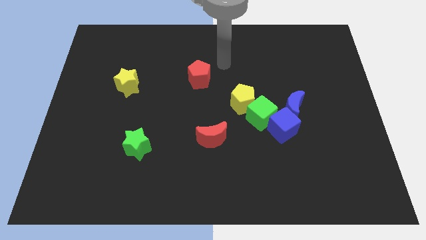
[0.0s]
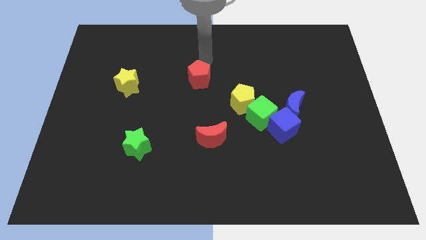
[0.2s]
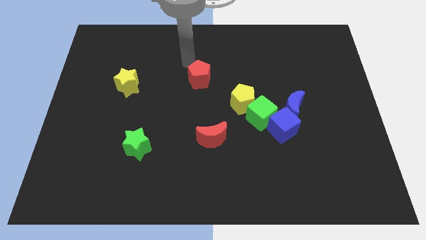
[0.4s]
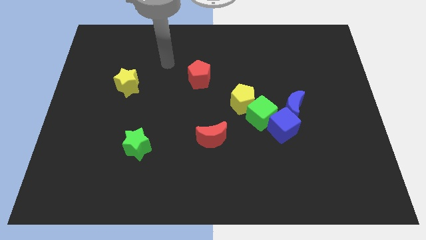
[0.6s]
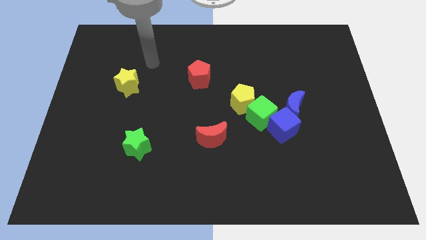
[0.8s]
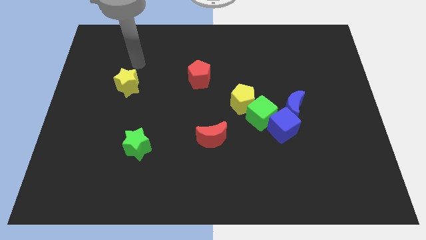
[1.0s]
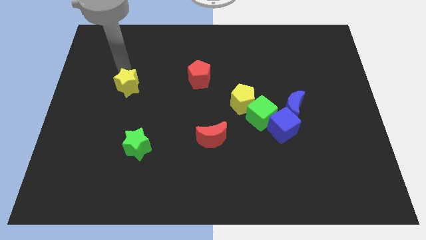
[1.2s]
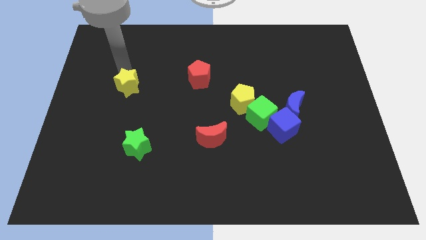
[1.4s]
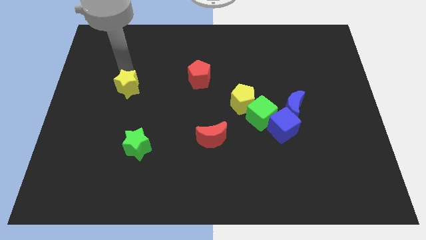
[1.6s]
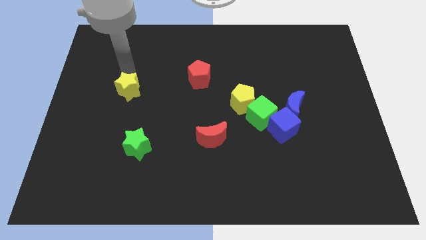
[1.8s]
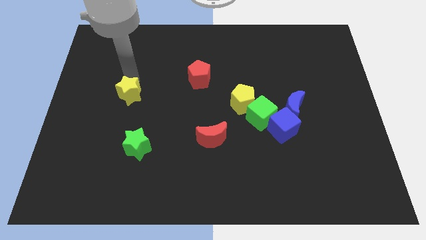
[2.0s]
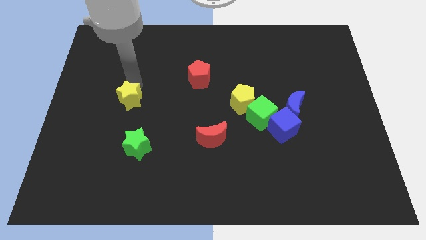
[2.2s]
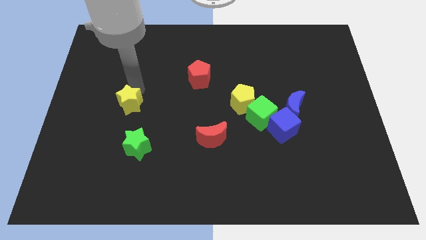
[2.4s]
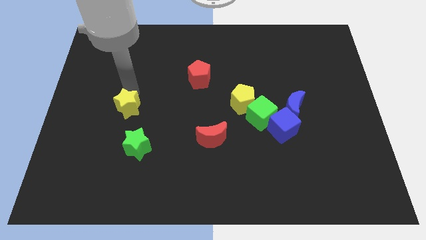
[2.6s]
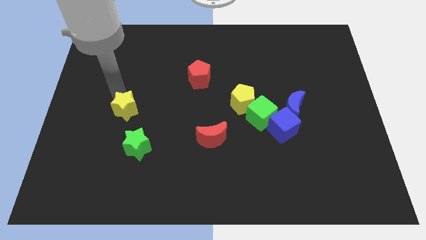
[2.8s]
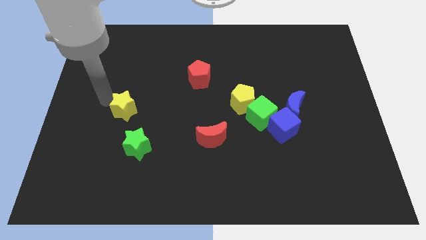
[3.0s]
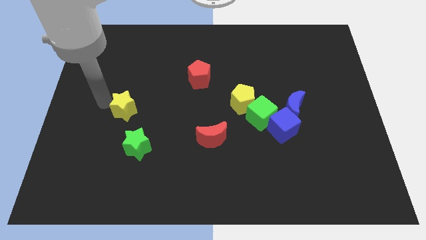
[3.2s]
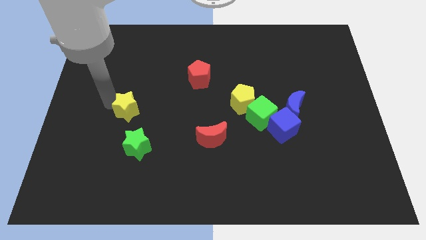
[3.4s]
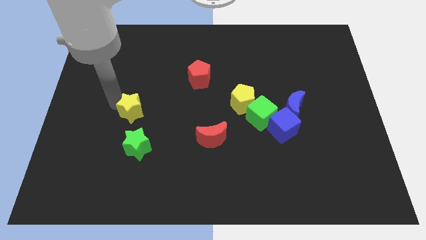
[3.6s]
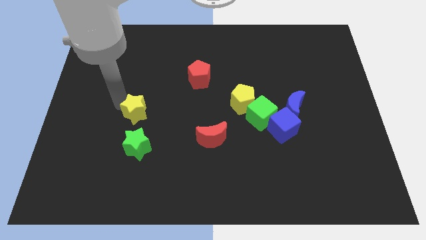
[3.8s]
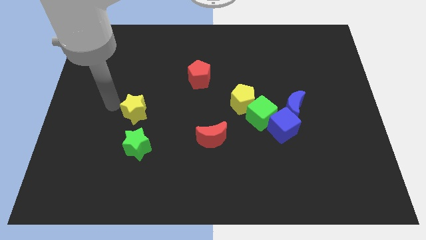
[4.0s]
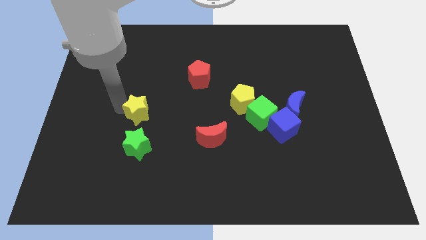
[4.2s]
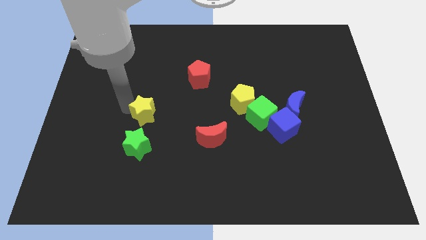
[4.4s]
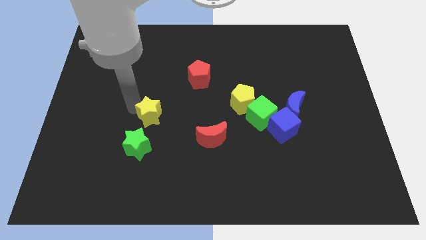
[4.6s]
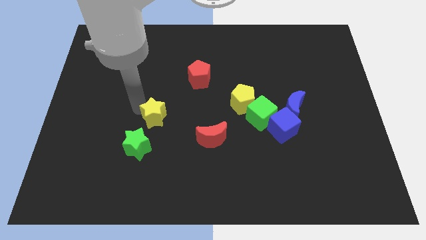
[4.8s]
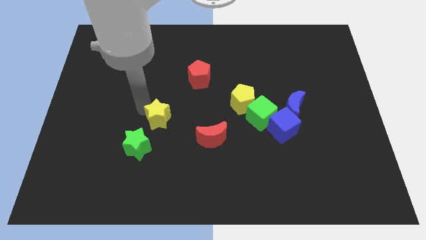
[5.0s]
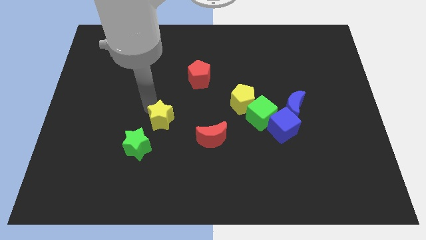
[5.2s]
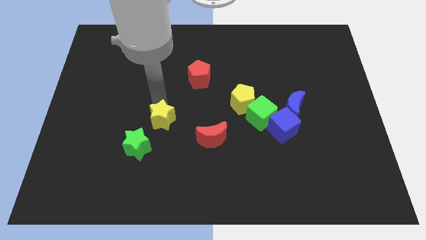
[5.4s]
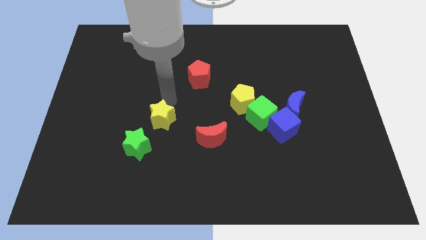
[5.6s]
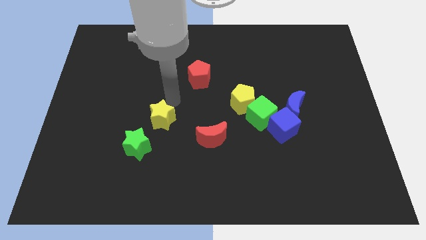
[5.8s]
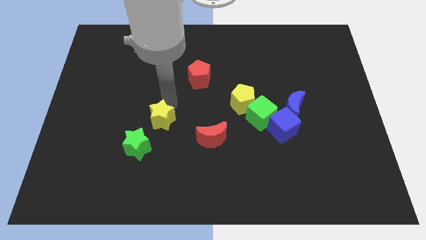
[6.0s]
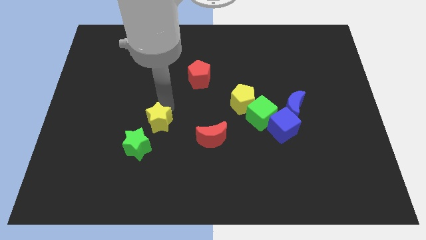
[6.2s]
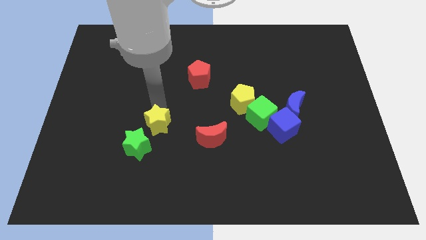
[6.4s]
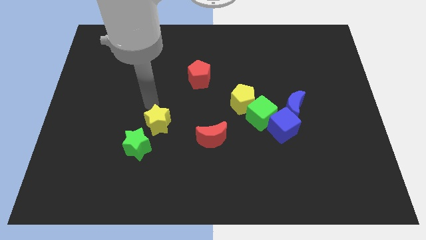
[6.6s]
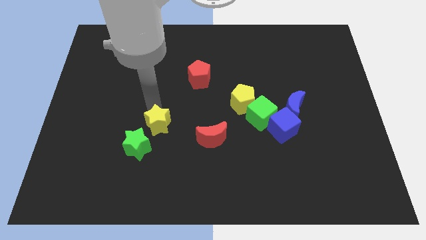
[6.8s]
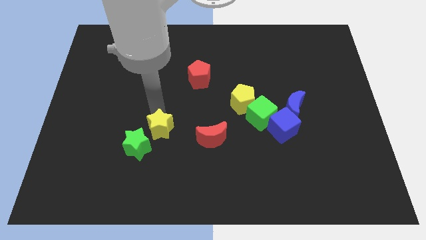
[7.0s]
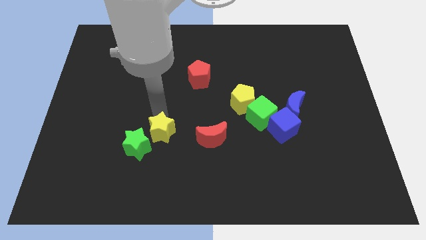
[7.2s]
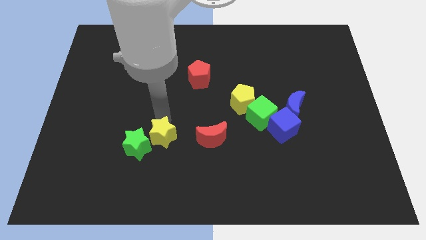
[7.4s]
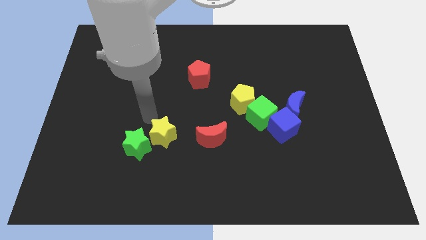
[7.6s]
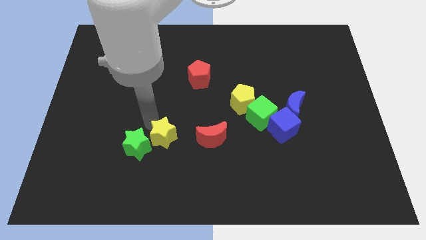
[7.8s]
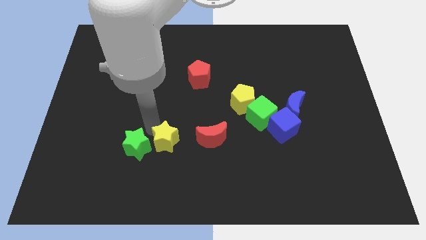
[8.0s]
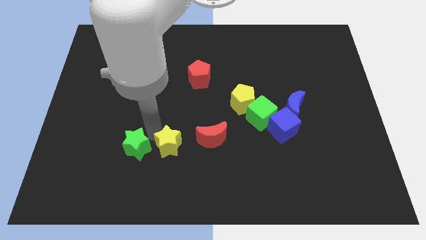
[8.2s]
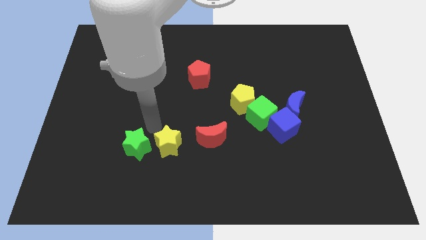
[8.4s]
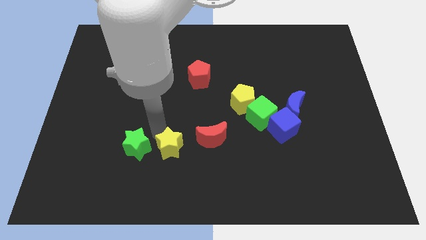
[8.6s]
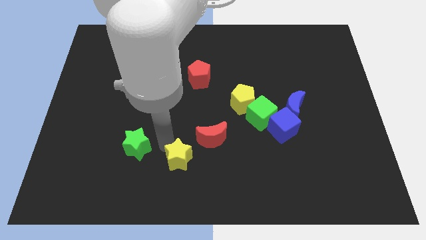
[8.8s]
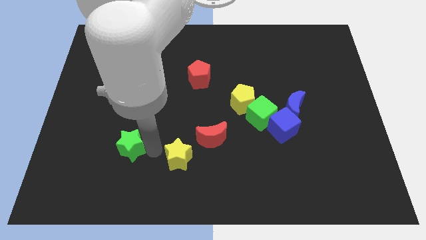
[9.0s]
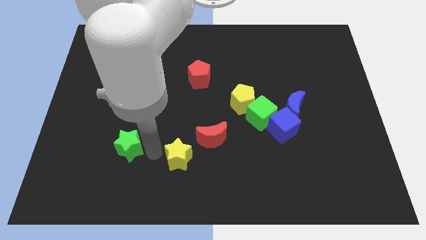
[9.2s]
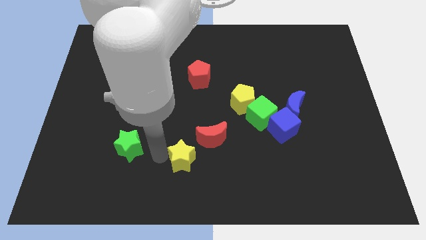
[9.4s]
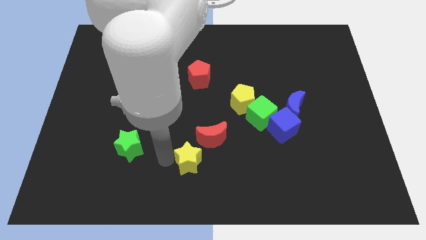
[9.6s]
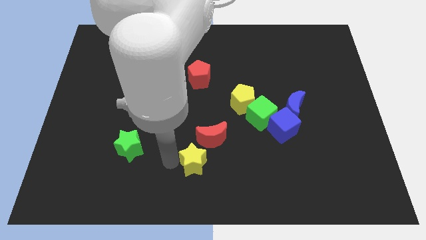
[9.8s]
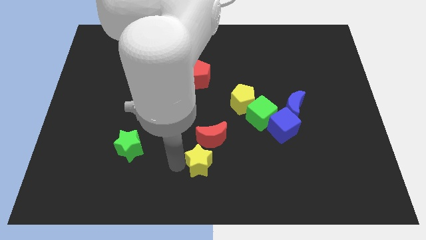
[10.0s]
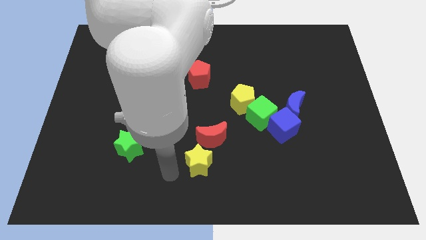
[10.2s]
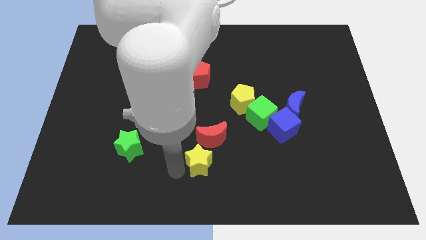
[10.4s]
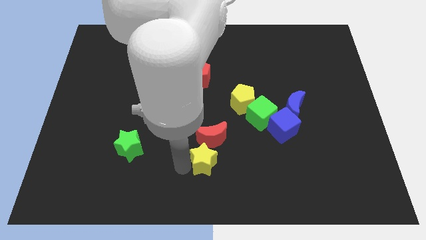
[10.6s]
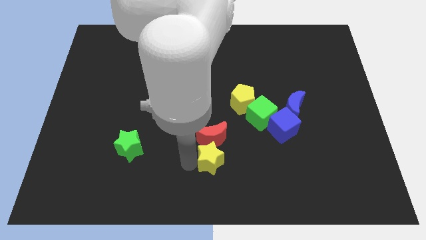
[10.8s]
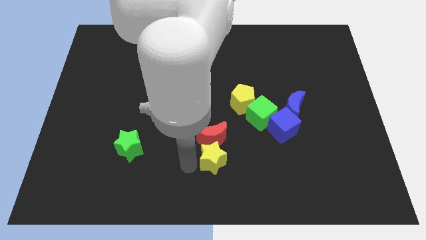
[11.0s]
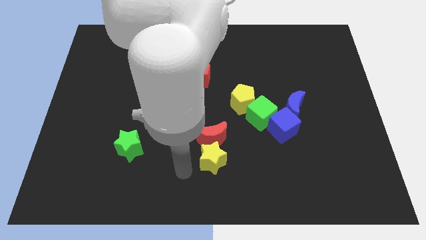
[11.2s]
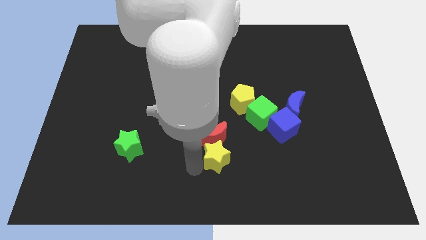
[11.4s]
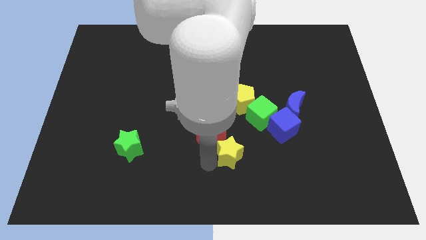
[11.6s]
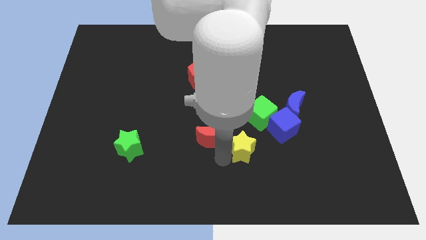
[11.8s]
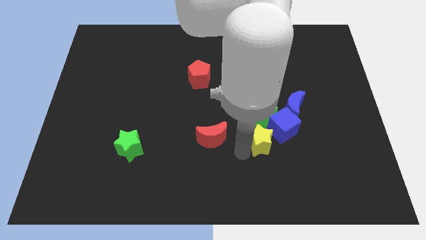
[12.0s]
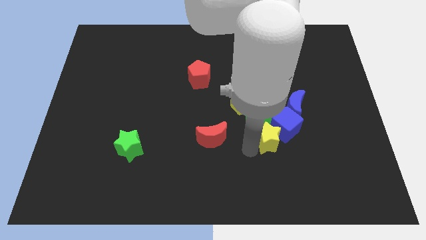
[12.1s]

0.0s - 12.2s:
push the yellow star close to the blue cube

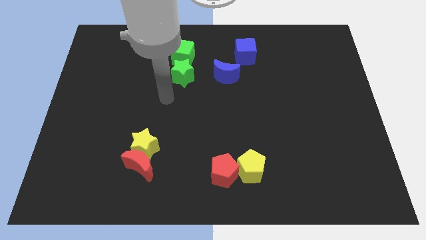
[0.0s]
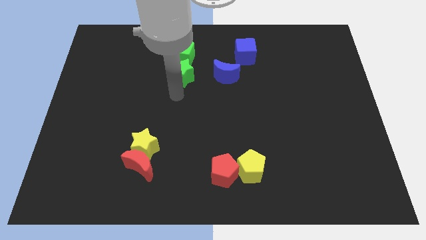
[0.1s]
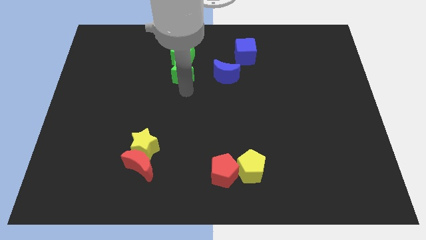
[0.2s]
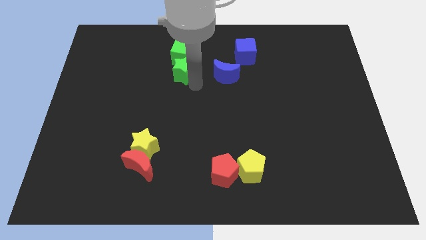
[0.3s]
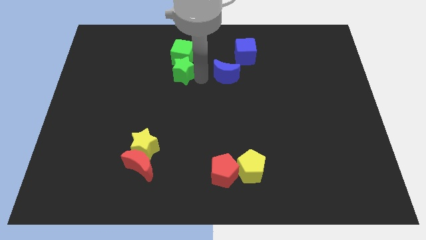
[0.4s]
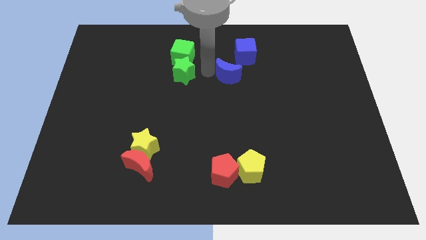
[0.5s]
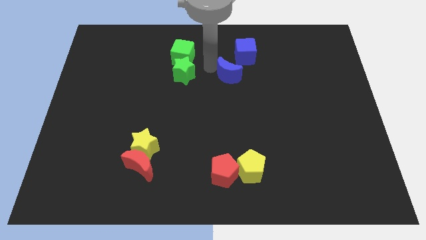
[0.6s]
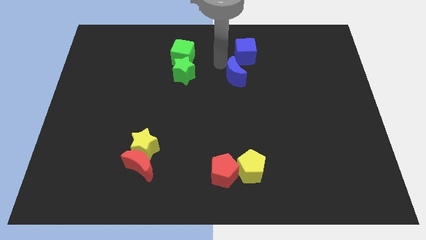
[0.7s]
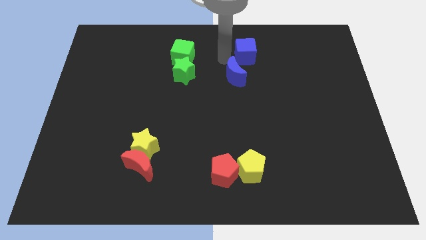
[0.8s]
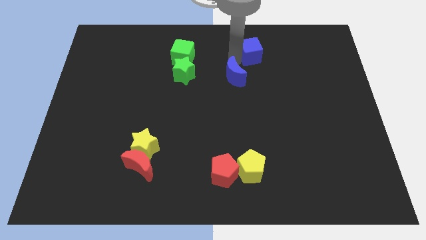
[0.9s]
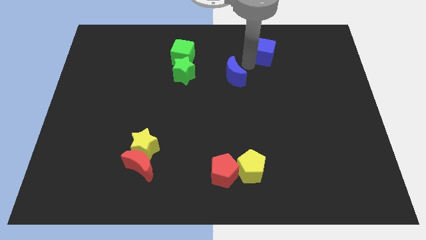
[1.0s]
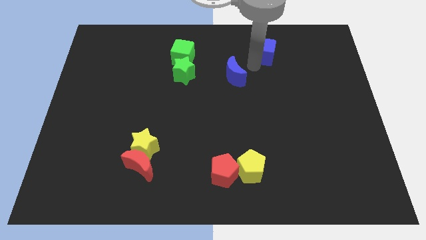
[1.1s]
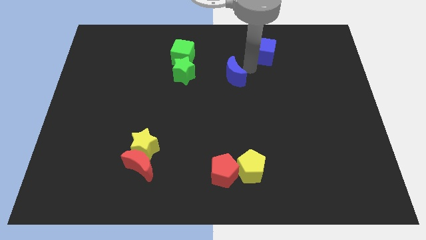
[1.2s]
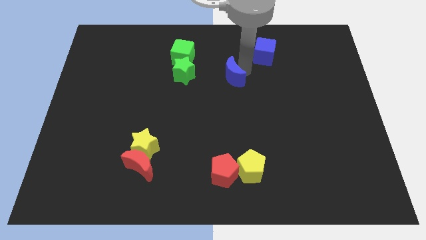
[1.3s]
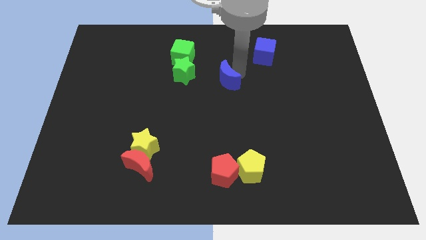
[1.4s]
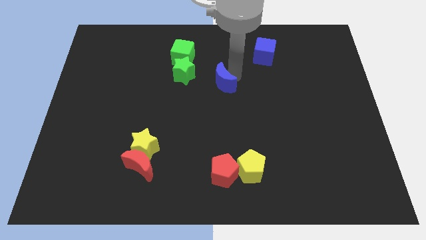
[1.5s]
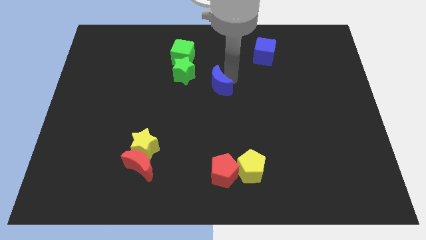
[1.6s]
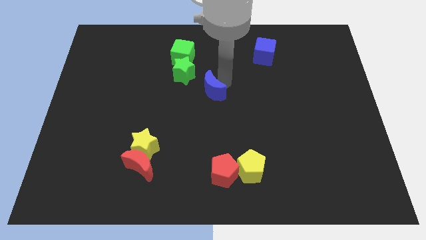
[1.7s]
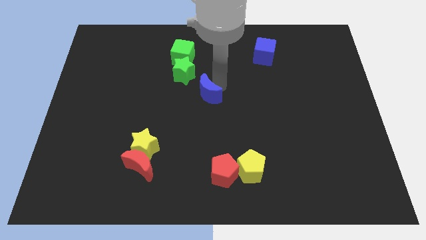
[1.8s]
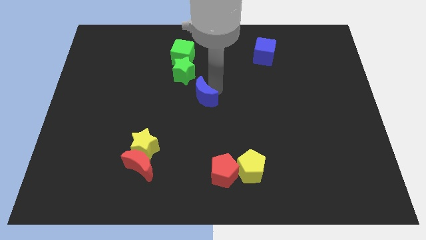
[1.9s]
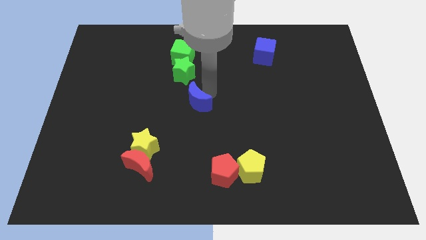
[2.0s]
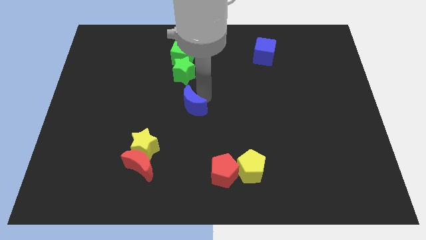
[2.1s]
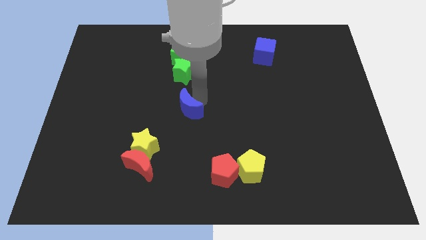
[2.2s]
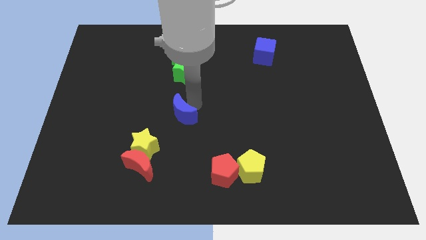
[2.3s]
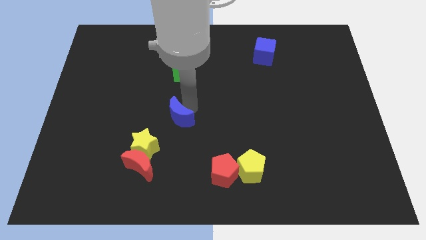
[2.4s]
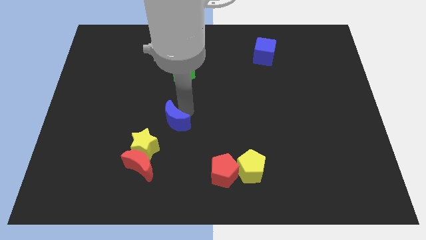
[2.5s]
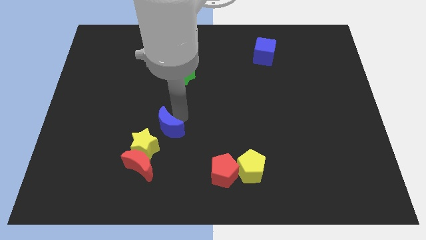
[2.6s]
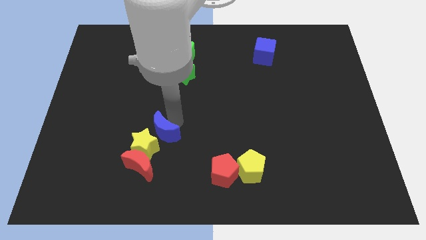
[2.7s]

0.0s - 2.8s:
move the blue moon to the yellow star
